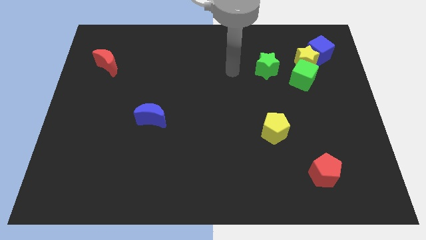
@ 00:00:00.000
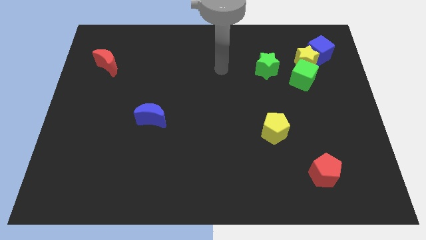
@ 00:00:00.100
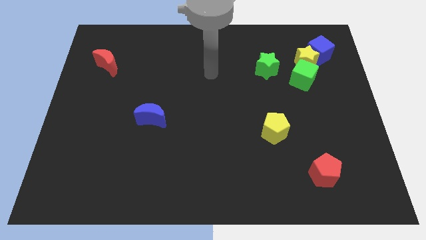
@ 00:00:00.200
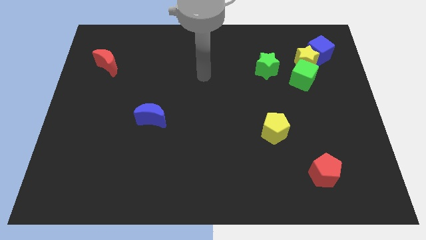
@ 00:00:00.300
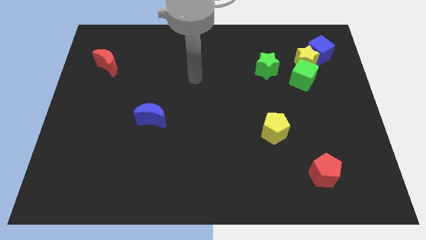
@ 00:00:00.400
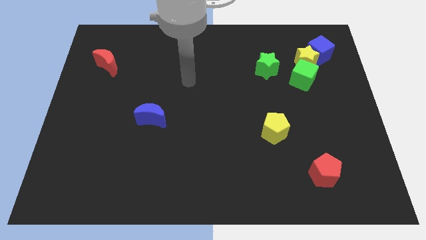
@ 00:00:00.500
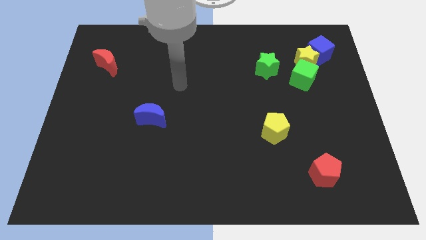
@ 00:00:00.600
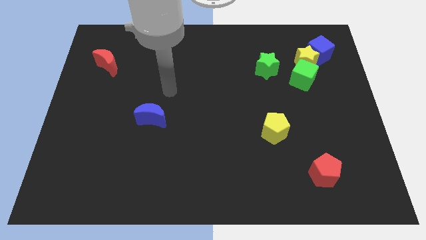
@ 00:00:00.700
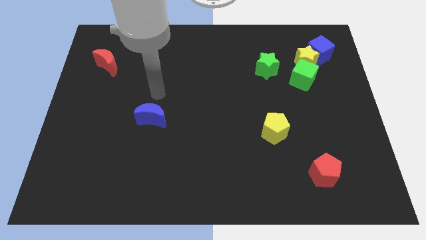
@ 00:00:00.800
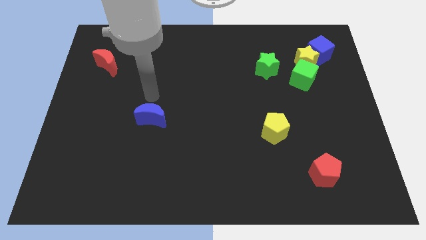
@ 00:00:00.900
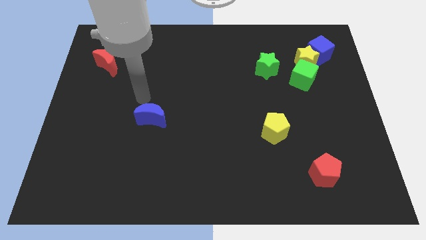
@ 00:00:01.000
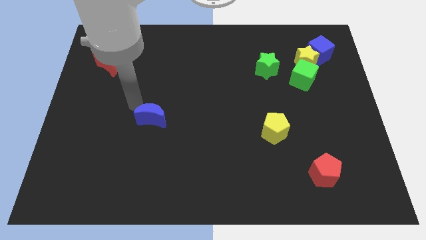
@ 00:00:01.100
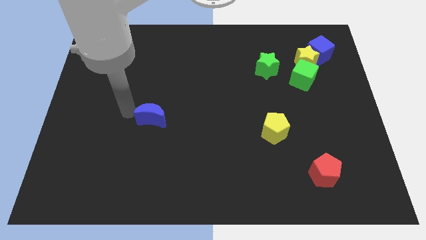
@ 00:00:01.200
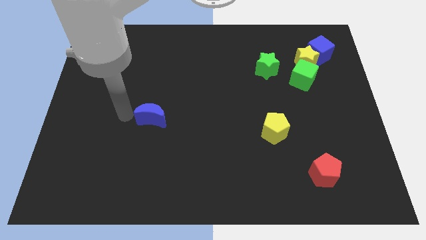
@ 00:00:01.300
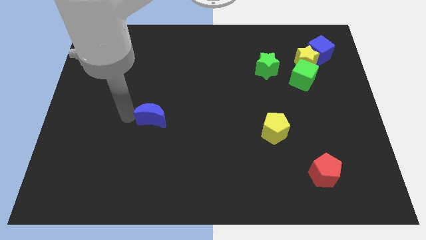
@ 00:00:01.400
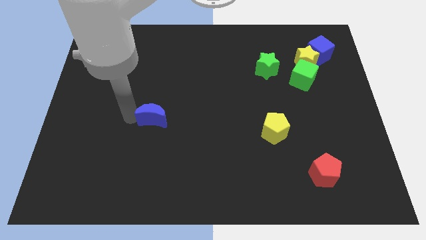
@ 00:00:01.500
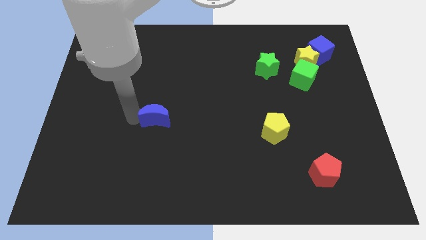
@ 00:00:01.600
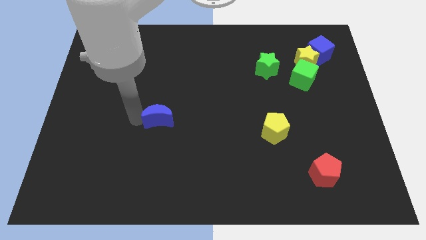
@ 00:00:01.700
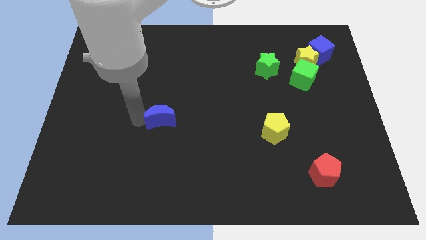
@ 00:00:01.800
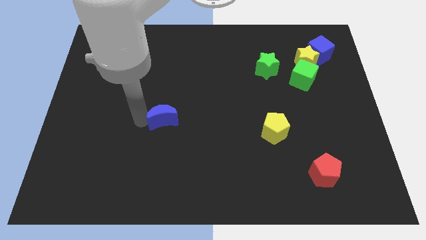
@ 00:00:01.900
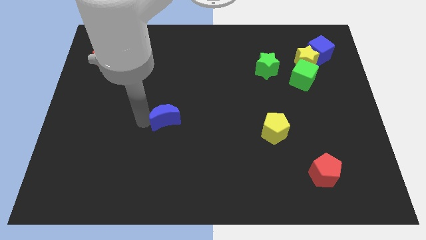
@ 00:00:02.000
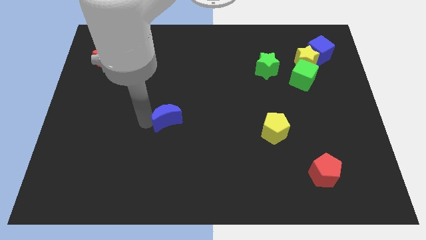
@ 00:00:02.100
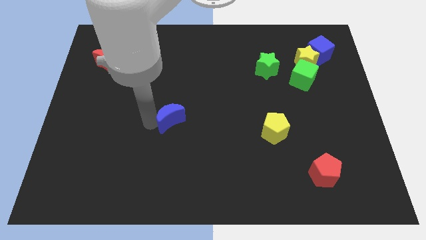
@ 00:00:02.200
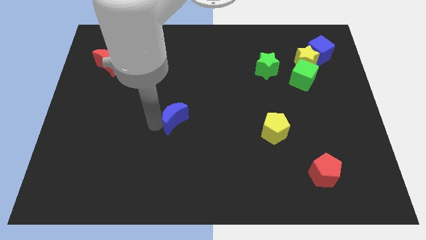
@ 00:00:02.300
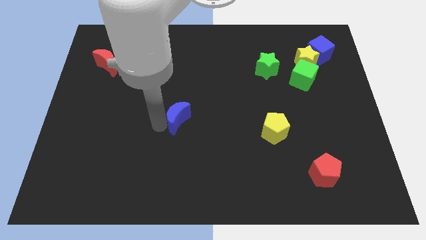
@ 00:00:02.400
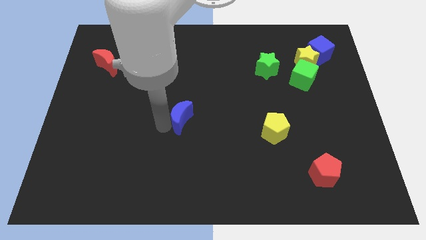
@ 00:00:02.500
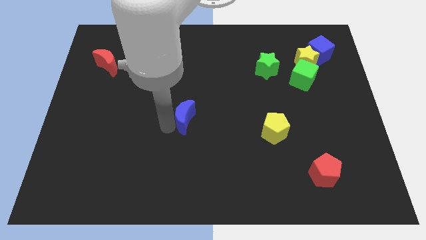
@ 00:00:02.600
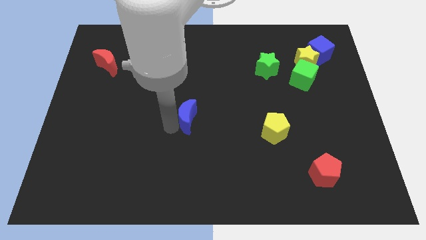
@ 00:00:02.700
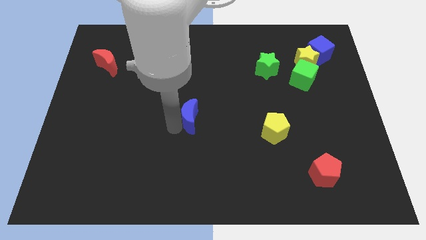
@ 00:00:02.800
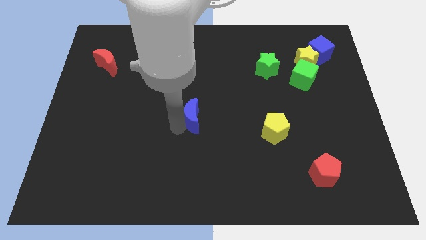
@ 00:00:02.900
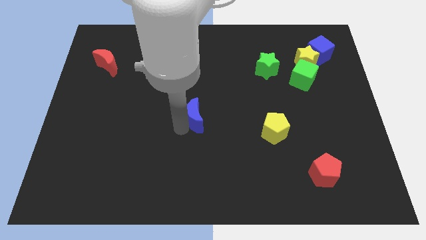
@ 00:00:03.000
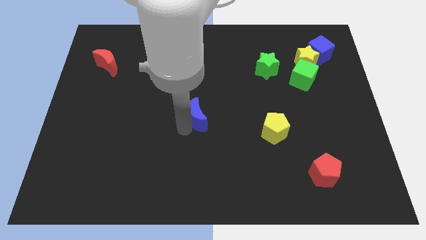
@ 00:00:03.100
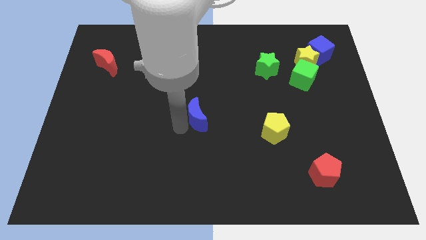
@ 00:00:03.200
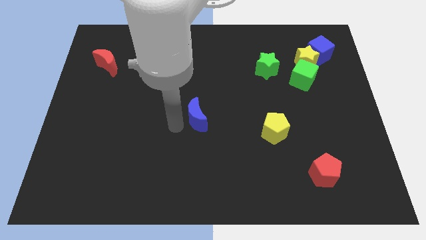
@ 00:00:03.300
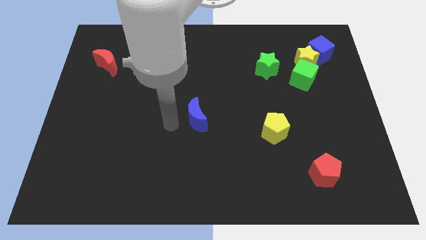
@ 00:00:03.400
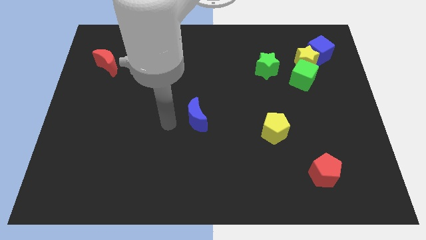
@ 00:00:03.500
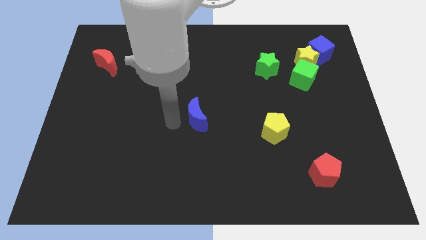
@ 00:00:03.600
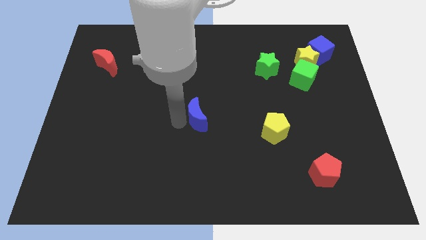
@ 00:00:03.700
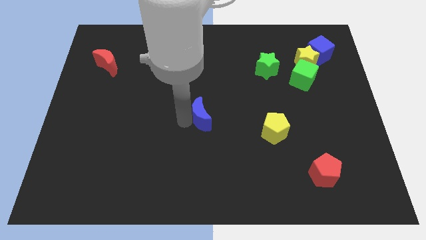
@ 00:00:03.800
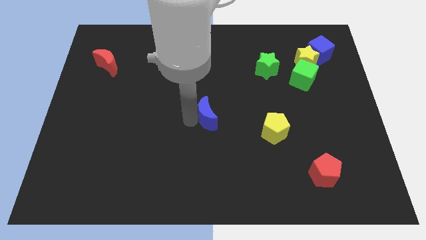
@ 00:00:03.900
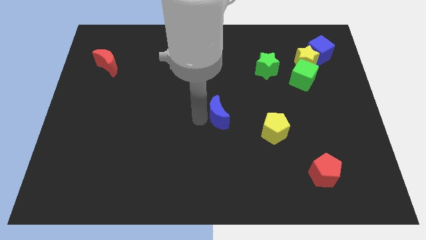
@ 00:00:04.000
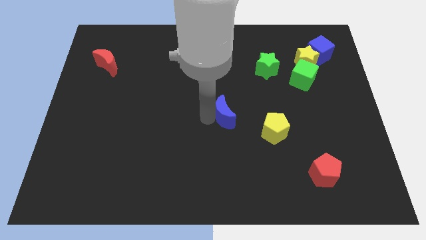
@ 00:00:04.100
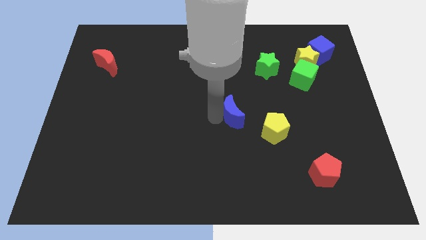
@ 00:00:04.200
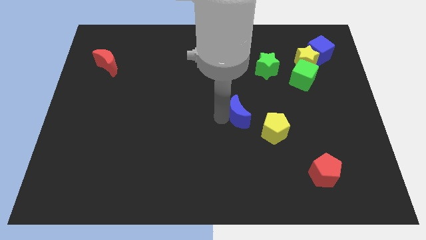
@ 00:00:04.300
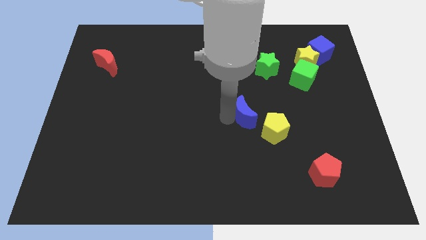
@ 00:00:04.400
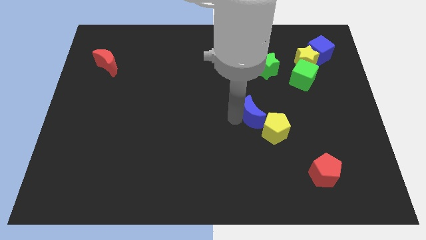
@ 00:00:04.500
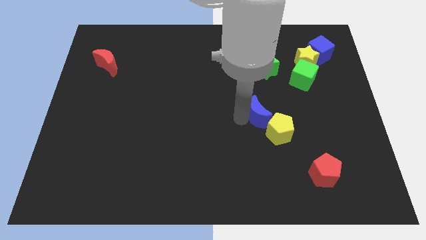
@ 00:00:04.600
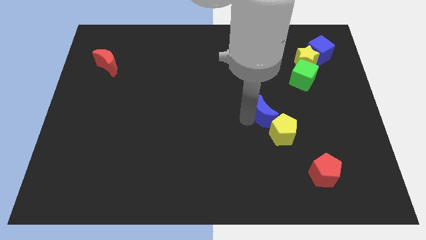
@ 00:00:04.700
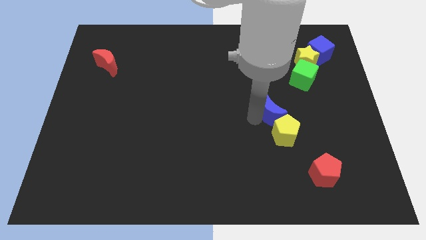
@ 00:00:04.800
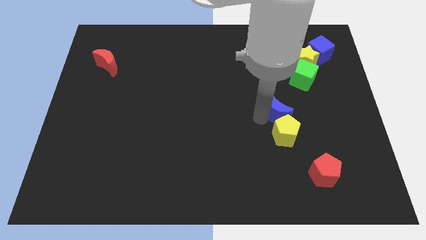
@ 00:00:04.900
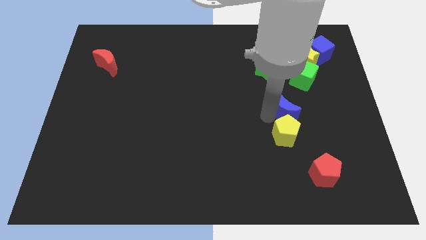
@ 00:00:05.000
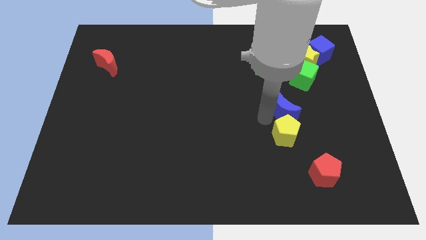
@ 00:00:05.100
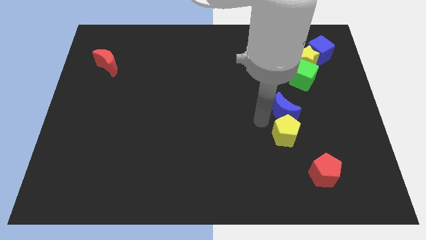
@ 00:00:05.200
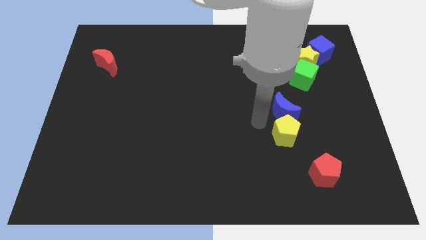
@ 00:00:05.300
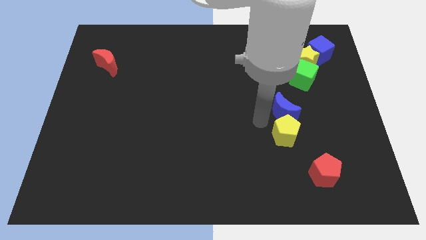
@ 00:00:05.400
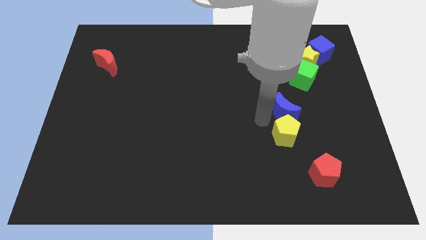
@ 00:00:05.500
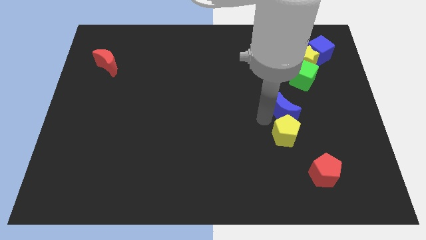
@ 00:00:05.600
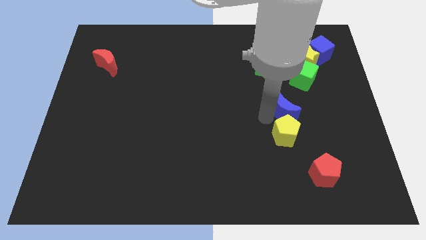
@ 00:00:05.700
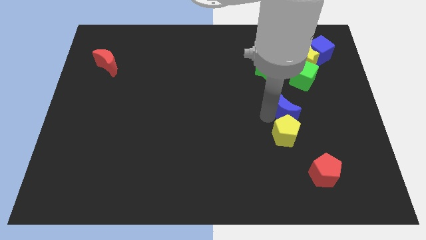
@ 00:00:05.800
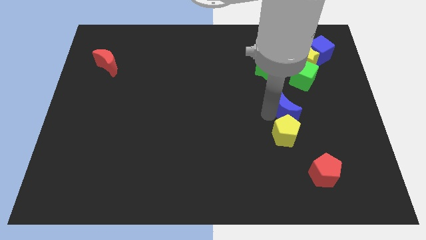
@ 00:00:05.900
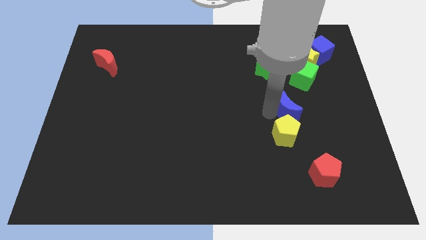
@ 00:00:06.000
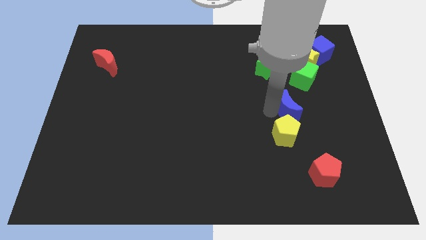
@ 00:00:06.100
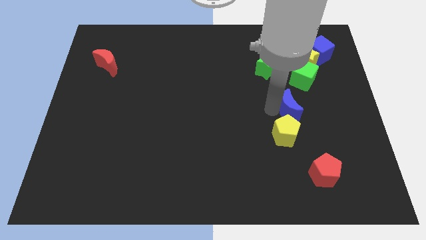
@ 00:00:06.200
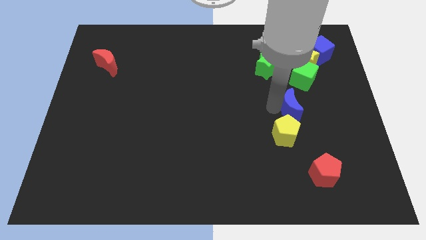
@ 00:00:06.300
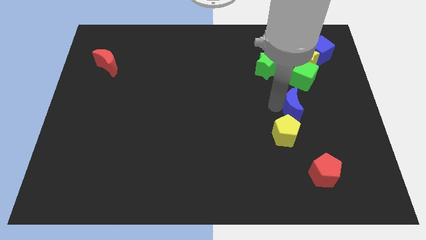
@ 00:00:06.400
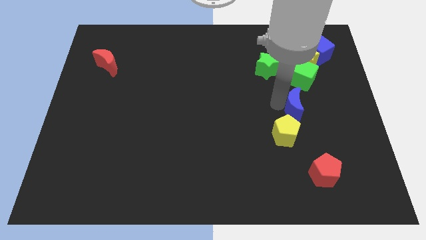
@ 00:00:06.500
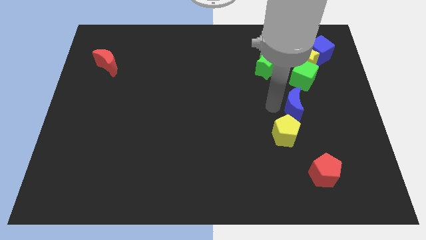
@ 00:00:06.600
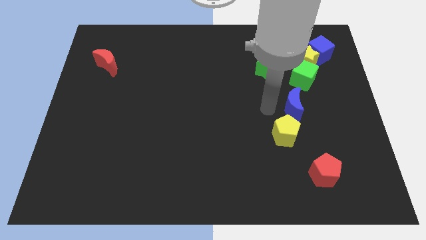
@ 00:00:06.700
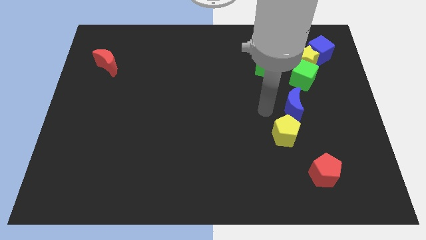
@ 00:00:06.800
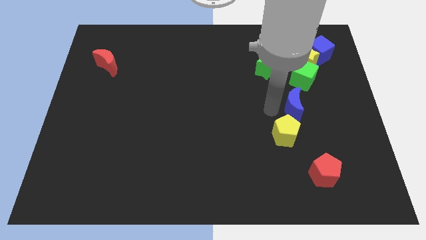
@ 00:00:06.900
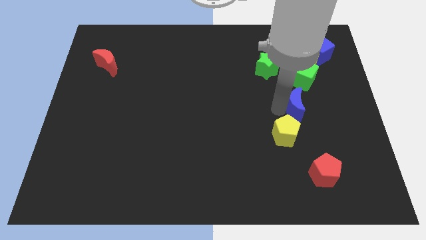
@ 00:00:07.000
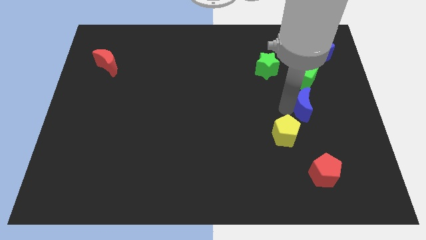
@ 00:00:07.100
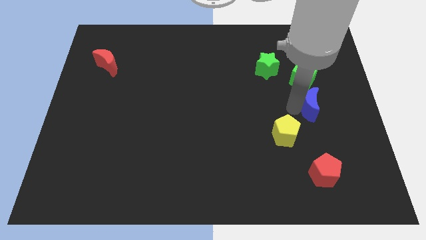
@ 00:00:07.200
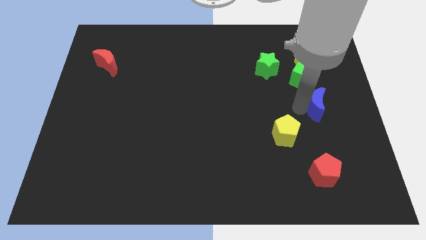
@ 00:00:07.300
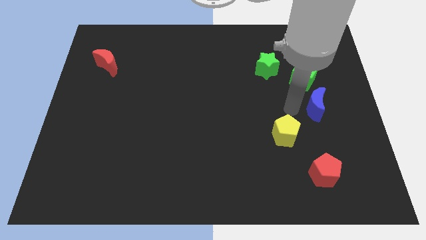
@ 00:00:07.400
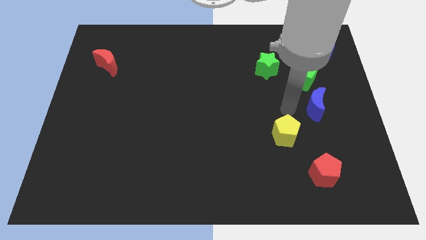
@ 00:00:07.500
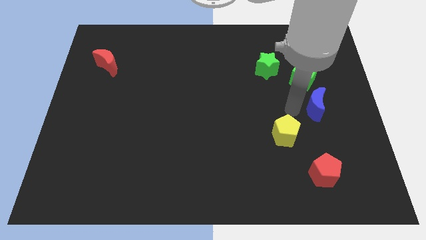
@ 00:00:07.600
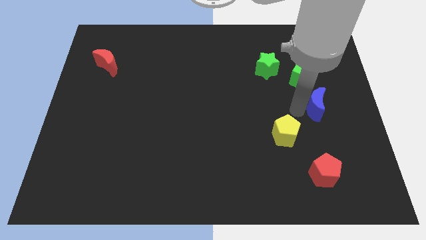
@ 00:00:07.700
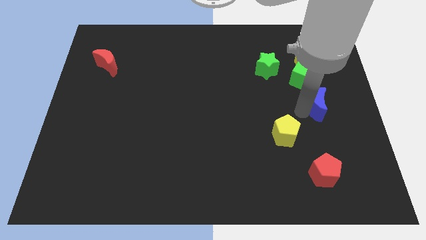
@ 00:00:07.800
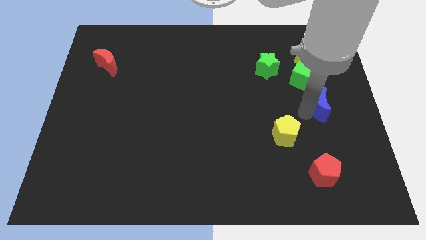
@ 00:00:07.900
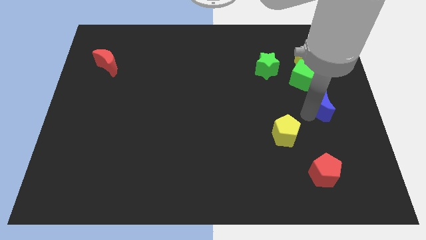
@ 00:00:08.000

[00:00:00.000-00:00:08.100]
move the blue moon to the center right
